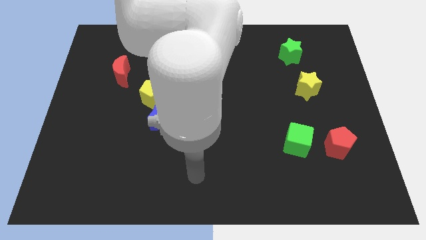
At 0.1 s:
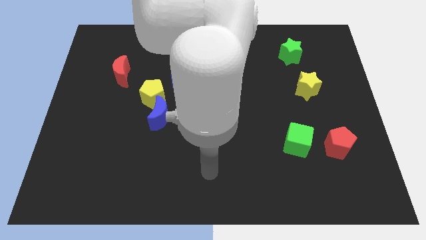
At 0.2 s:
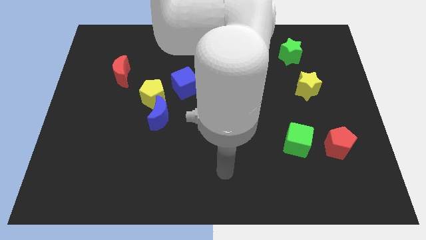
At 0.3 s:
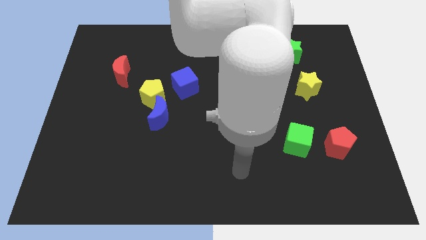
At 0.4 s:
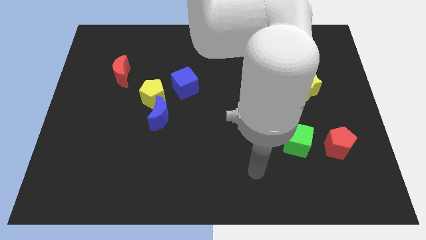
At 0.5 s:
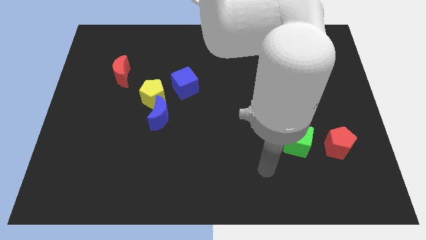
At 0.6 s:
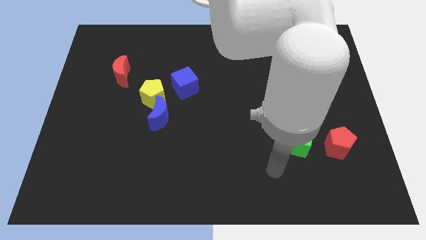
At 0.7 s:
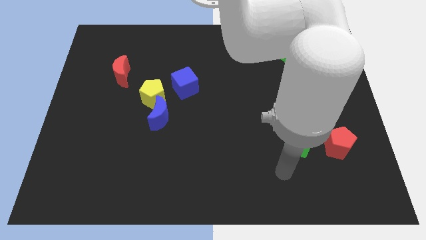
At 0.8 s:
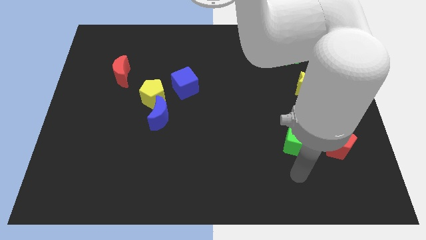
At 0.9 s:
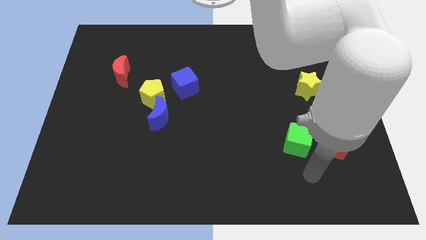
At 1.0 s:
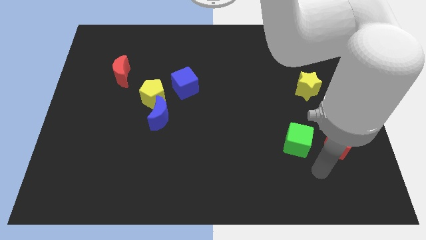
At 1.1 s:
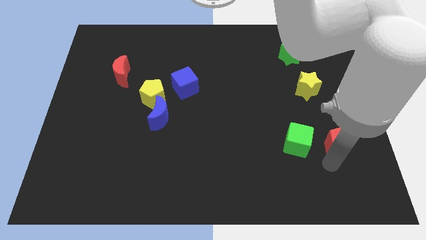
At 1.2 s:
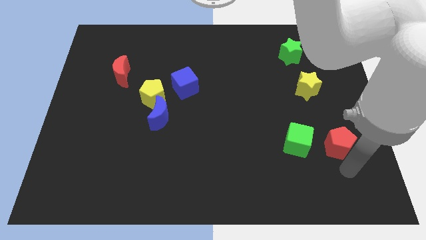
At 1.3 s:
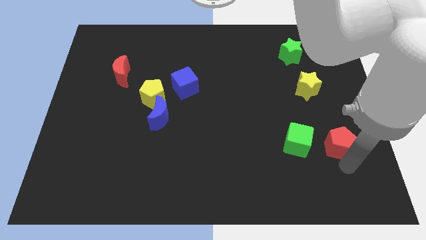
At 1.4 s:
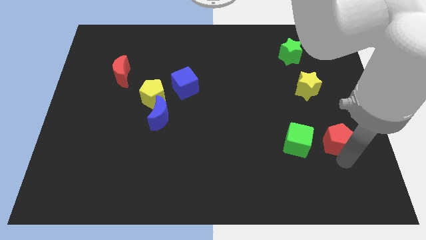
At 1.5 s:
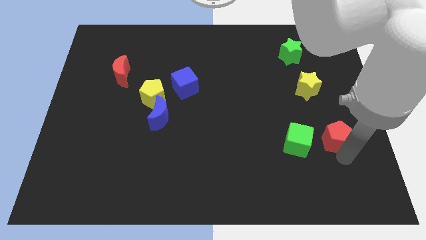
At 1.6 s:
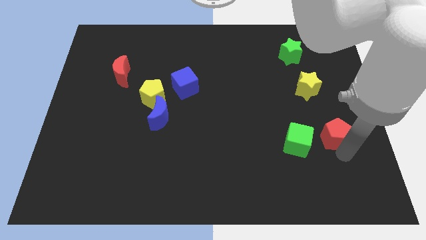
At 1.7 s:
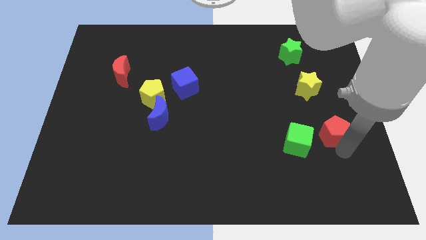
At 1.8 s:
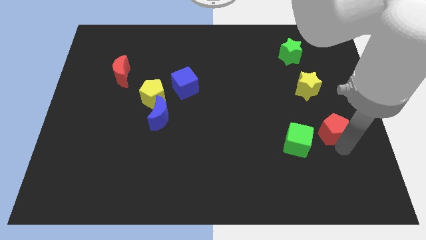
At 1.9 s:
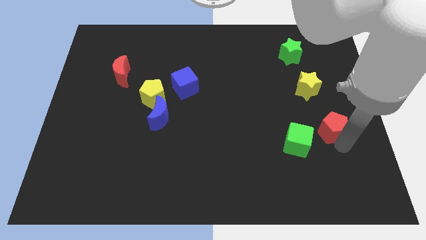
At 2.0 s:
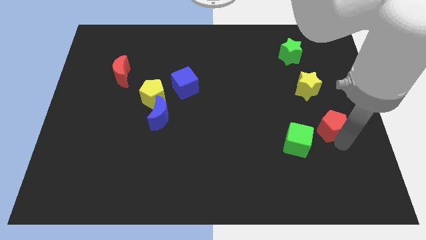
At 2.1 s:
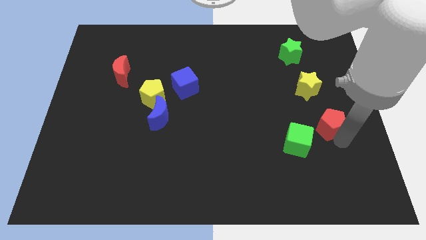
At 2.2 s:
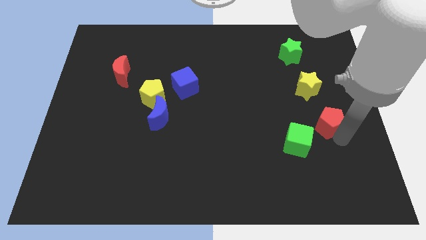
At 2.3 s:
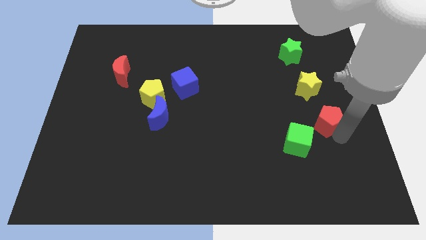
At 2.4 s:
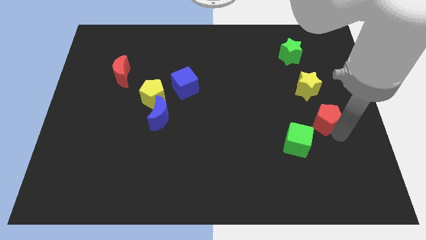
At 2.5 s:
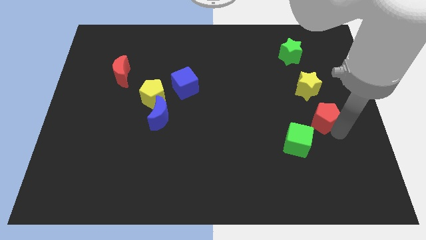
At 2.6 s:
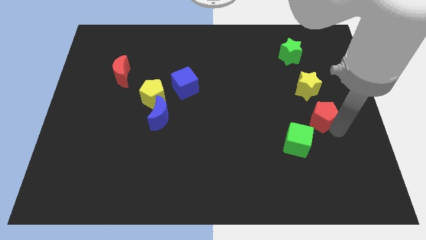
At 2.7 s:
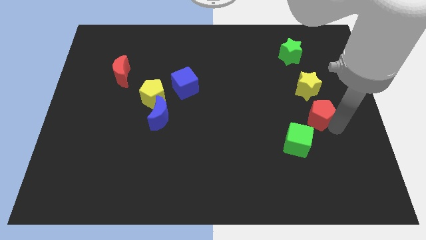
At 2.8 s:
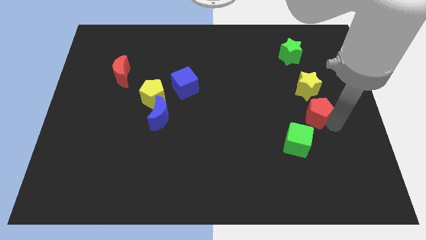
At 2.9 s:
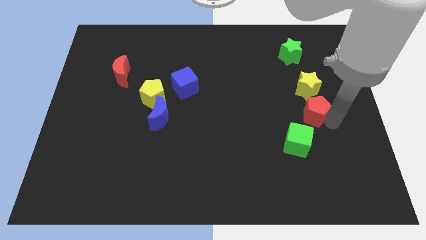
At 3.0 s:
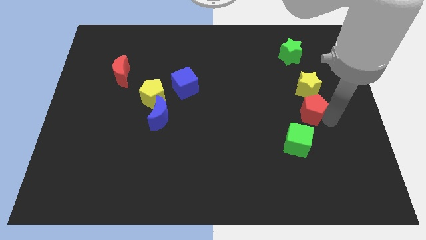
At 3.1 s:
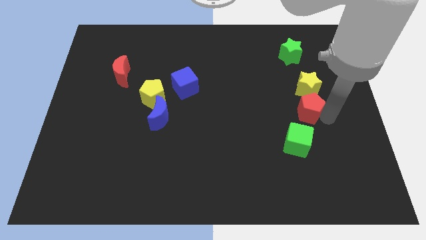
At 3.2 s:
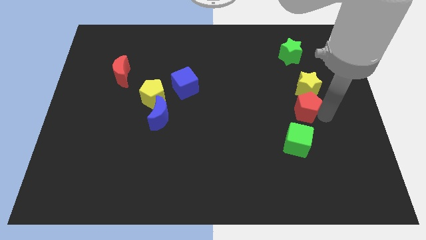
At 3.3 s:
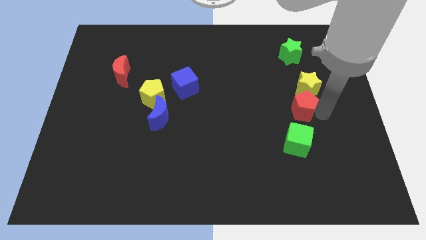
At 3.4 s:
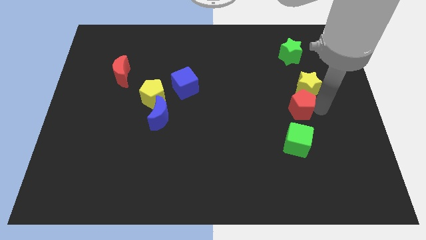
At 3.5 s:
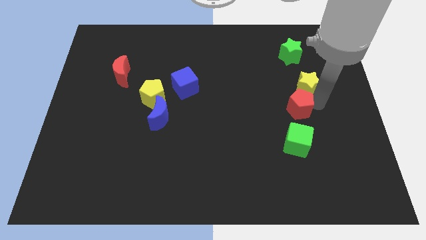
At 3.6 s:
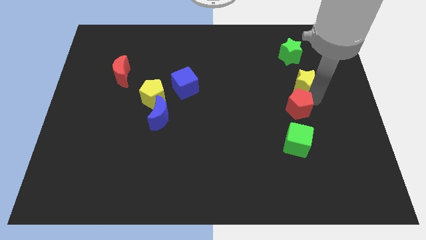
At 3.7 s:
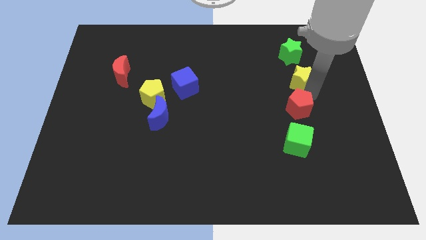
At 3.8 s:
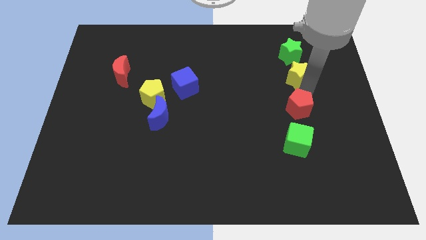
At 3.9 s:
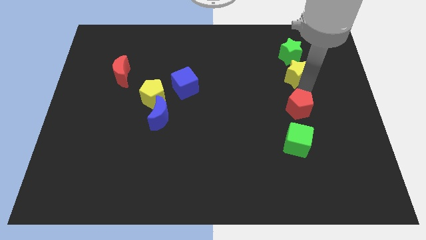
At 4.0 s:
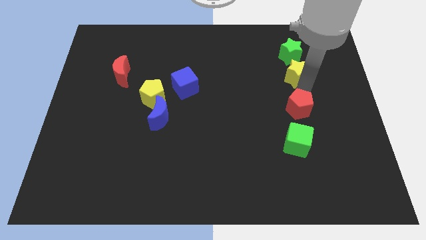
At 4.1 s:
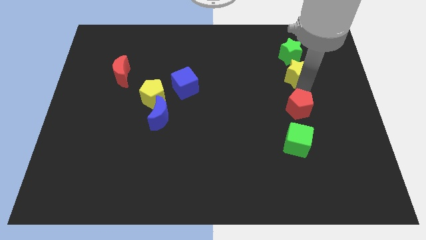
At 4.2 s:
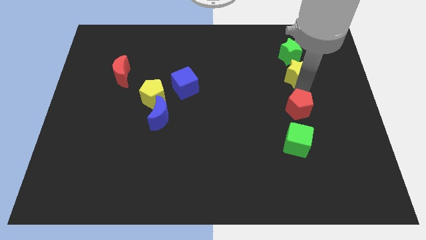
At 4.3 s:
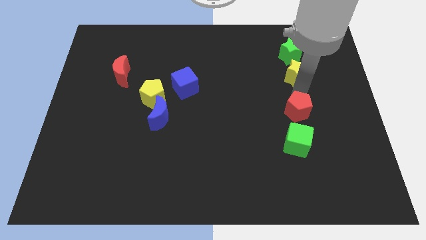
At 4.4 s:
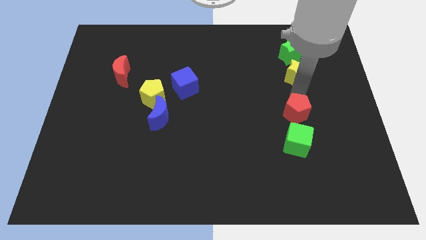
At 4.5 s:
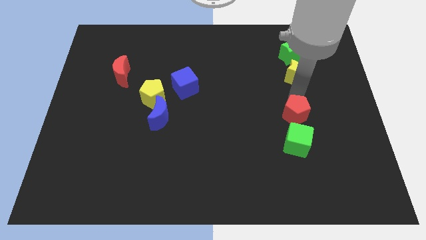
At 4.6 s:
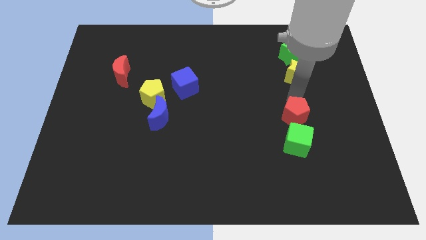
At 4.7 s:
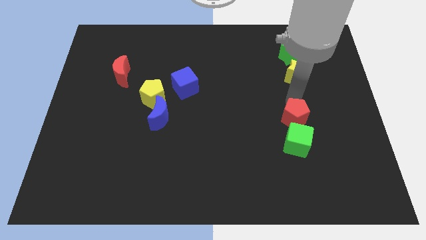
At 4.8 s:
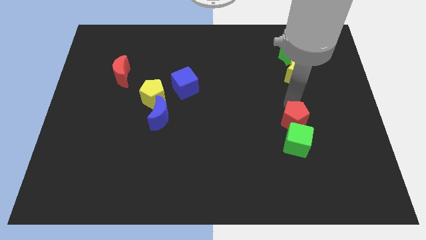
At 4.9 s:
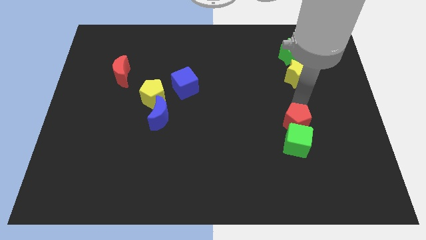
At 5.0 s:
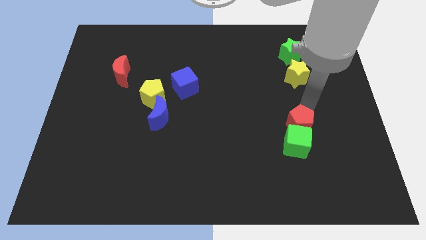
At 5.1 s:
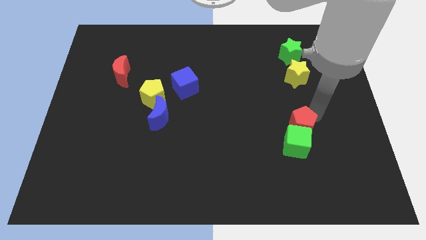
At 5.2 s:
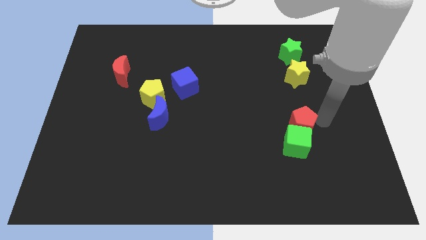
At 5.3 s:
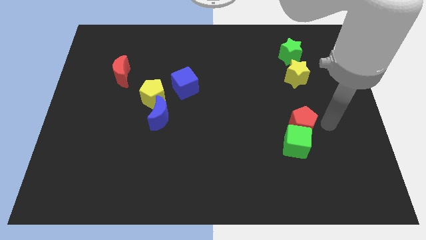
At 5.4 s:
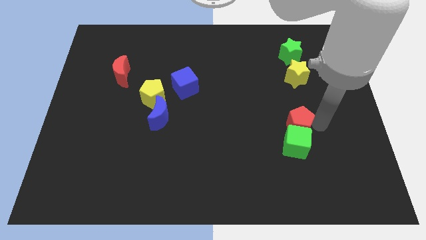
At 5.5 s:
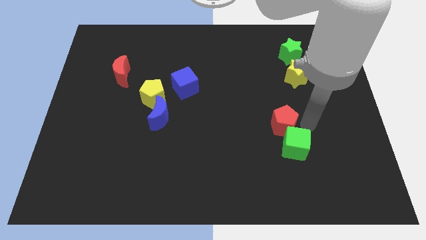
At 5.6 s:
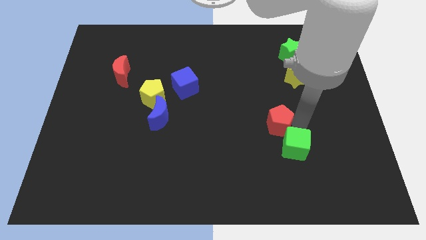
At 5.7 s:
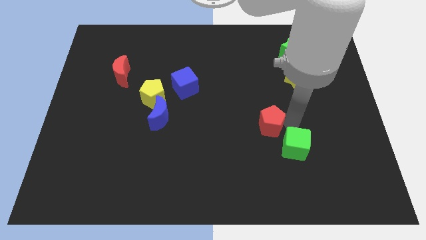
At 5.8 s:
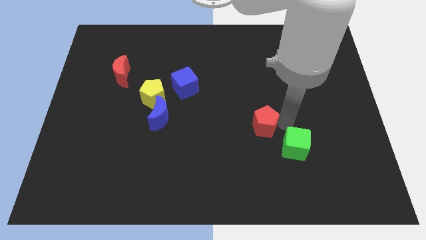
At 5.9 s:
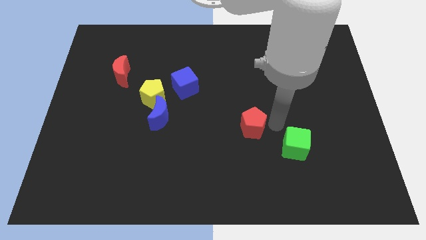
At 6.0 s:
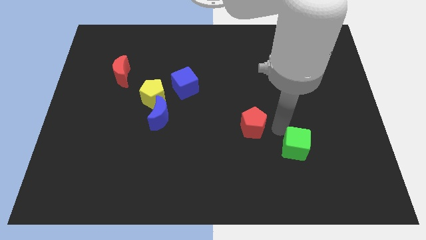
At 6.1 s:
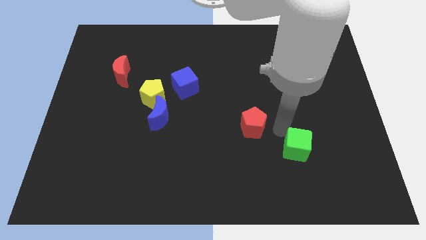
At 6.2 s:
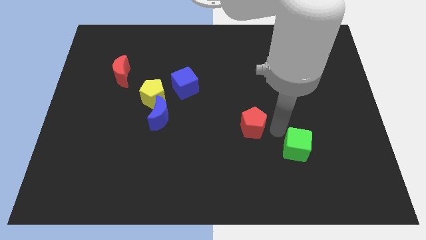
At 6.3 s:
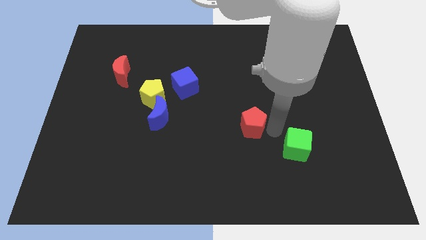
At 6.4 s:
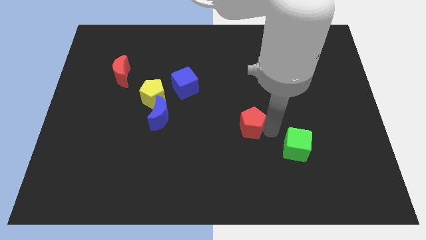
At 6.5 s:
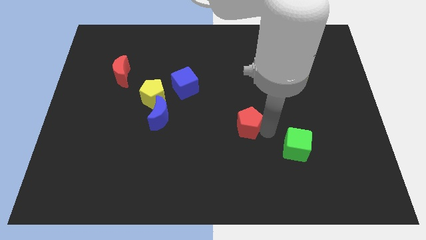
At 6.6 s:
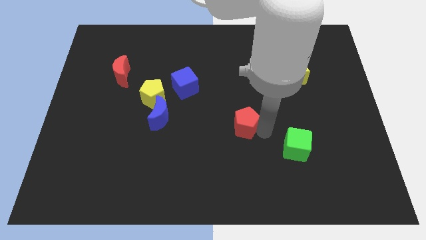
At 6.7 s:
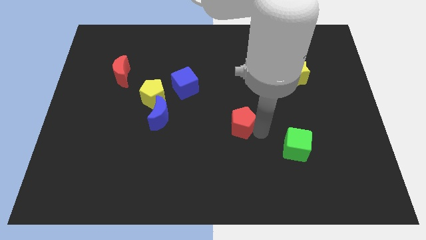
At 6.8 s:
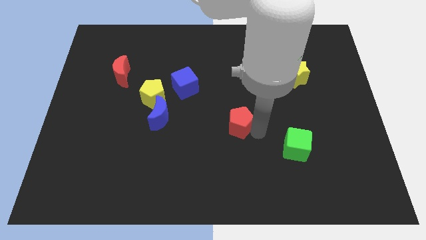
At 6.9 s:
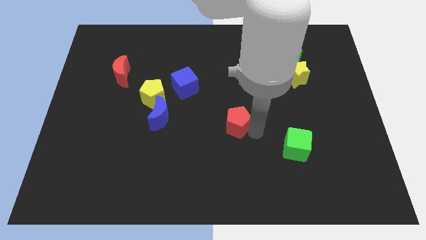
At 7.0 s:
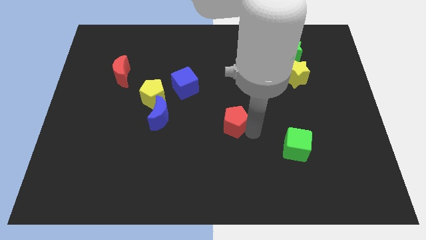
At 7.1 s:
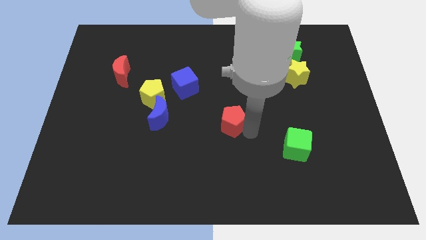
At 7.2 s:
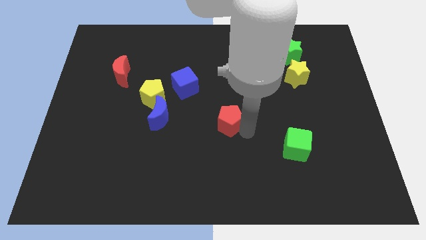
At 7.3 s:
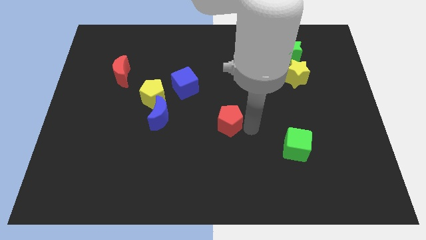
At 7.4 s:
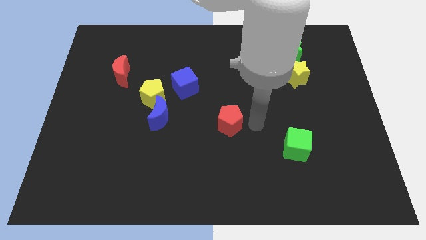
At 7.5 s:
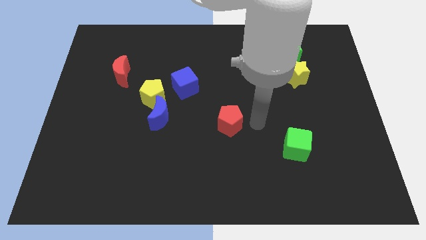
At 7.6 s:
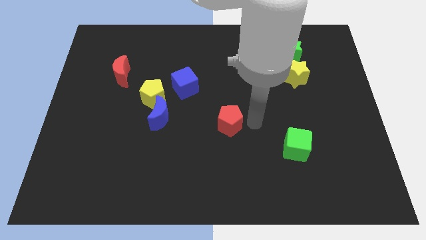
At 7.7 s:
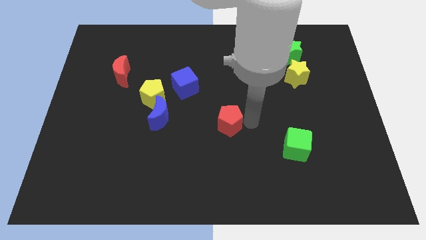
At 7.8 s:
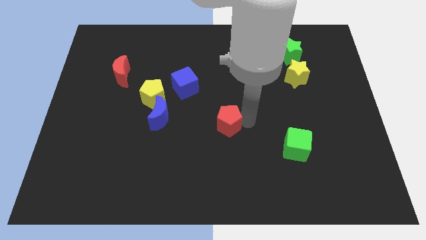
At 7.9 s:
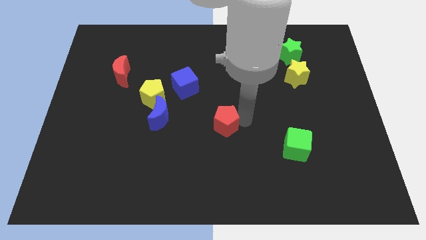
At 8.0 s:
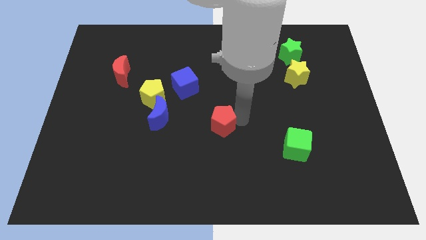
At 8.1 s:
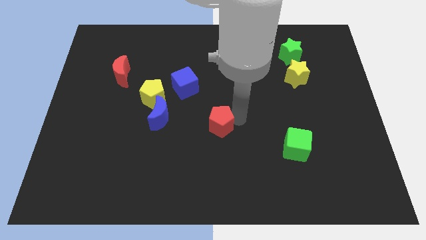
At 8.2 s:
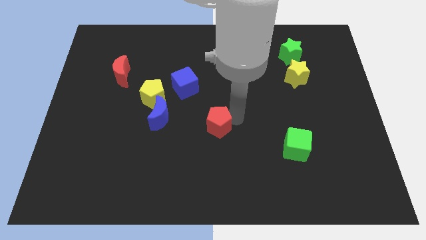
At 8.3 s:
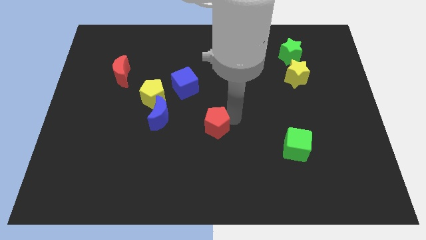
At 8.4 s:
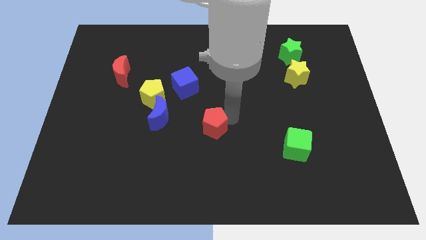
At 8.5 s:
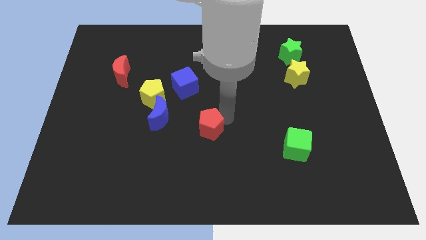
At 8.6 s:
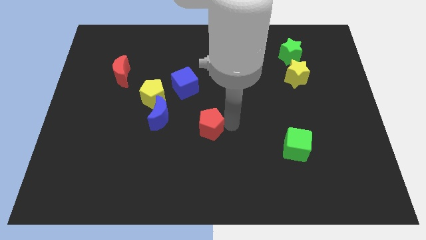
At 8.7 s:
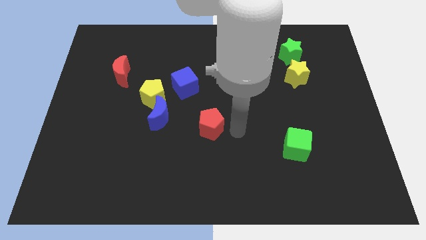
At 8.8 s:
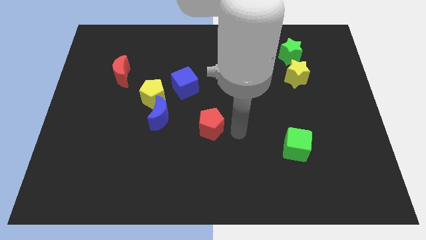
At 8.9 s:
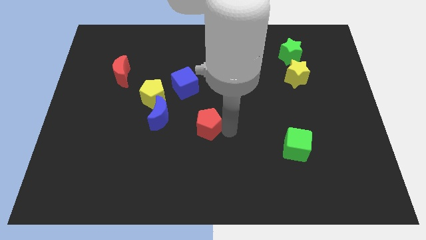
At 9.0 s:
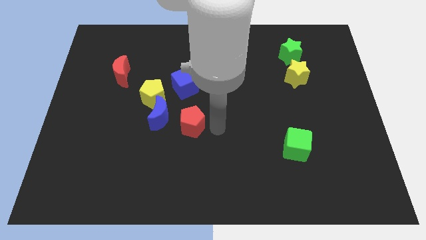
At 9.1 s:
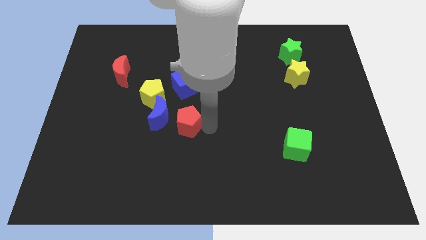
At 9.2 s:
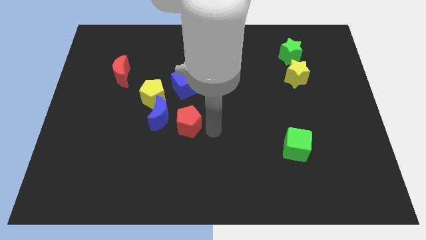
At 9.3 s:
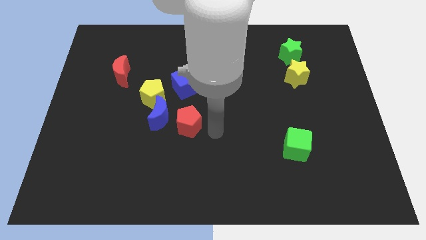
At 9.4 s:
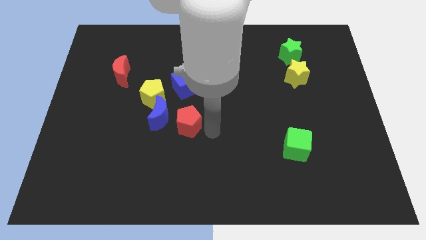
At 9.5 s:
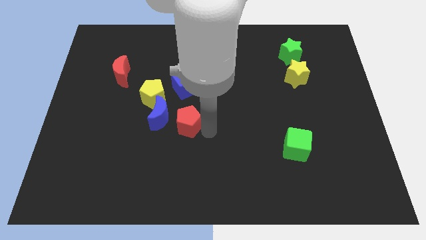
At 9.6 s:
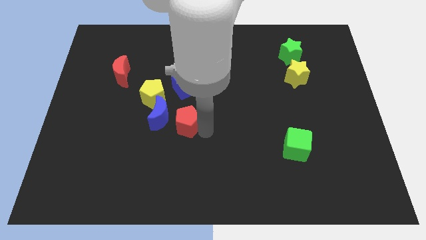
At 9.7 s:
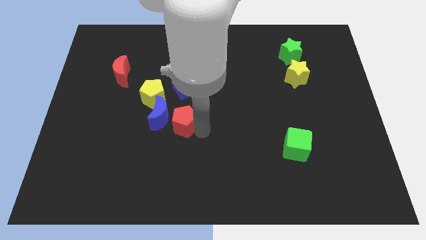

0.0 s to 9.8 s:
slide the red pentagon towards the blue moon
